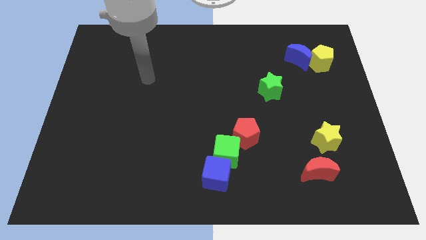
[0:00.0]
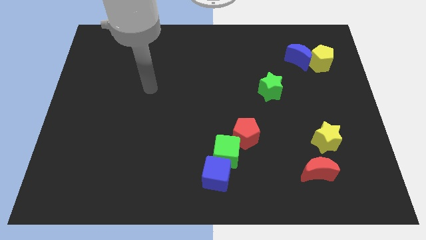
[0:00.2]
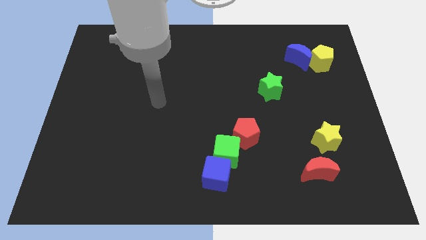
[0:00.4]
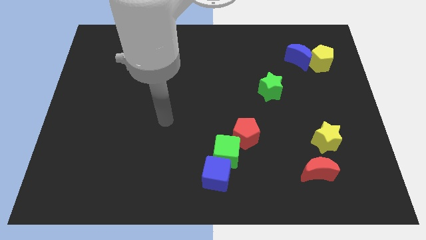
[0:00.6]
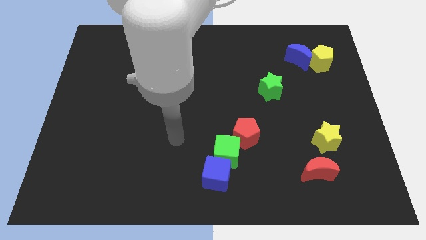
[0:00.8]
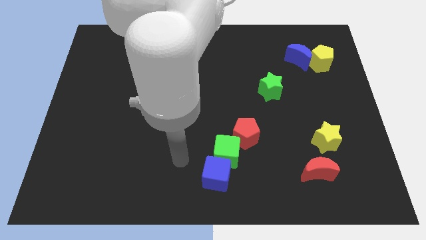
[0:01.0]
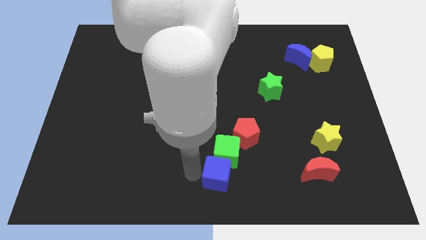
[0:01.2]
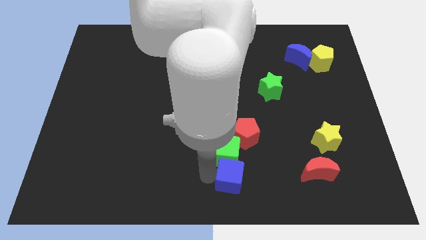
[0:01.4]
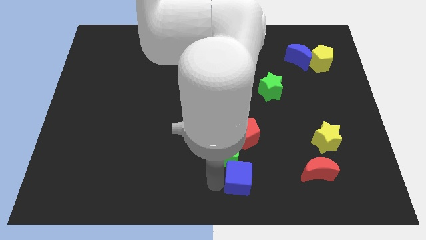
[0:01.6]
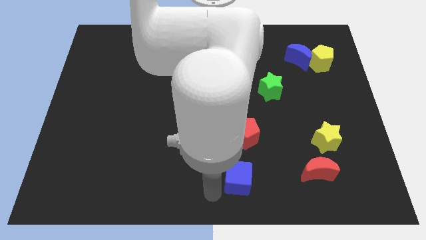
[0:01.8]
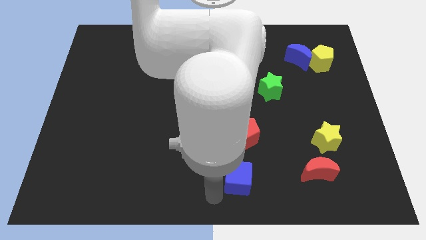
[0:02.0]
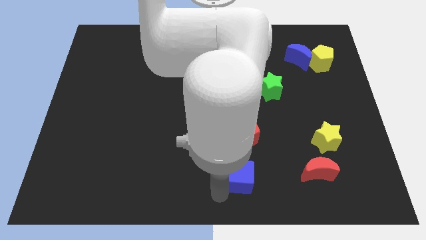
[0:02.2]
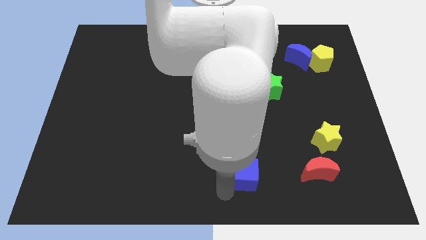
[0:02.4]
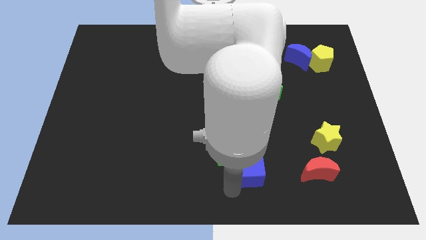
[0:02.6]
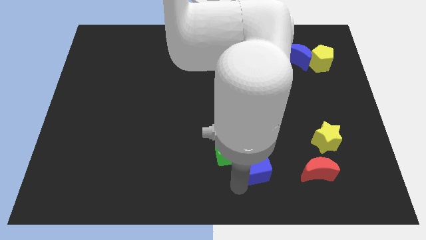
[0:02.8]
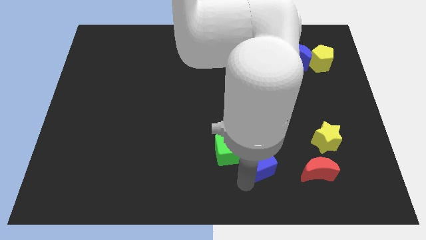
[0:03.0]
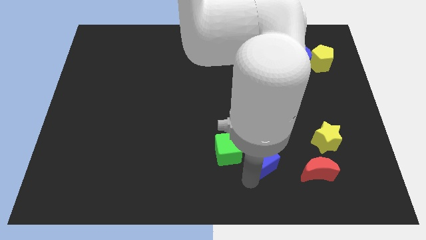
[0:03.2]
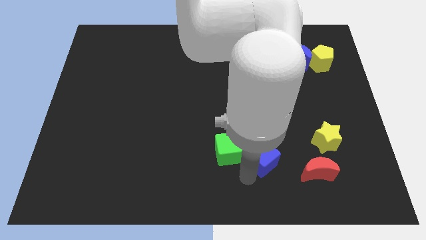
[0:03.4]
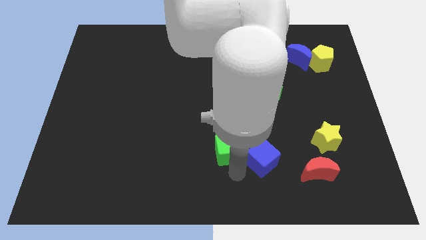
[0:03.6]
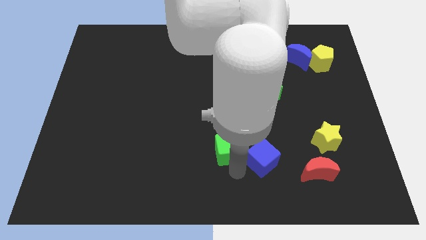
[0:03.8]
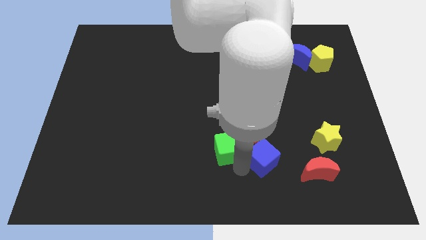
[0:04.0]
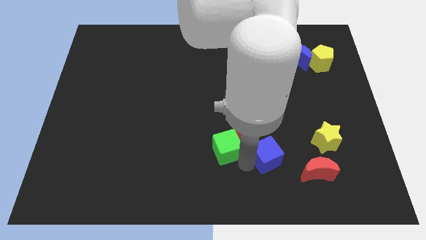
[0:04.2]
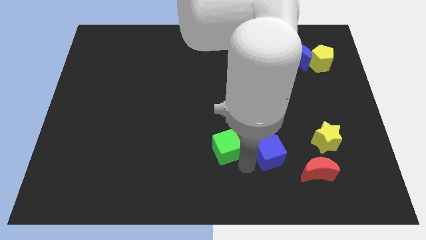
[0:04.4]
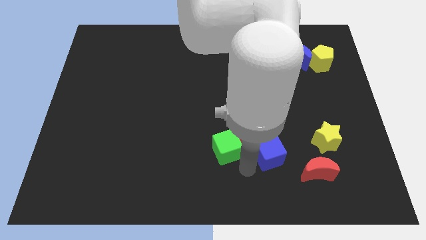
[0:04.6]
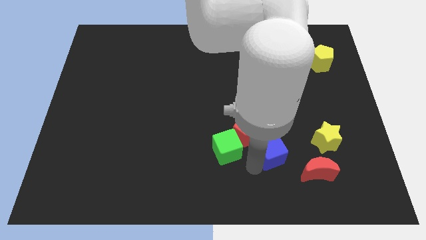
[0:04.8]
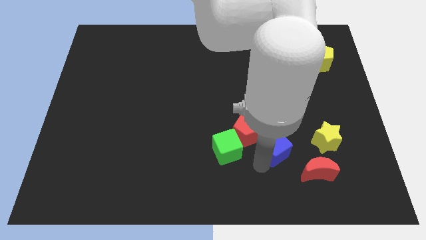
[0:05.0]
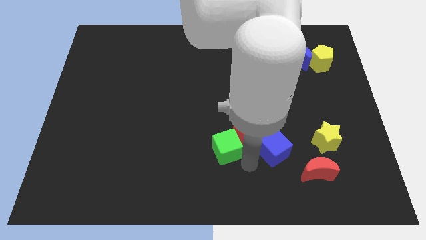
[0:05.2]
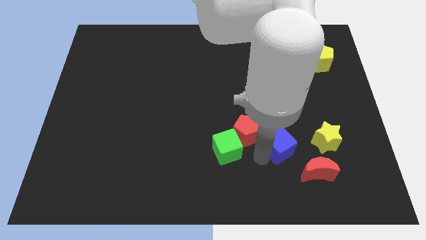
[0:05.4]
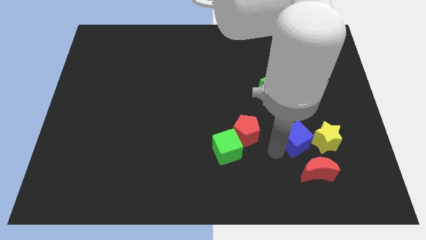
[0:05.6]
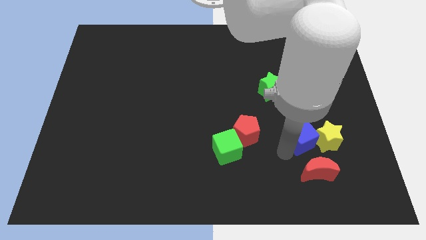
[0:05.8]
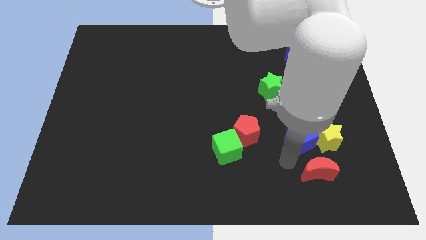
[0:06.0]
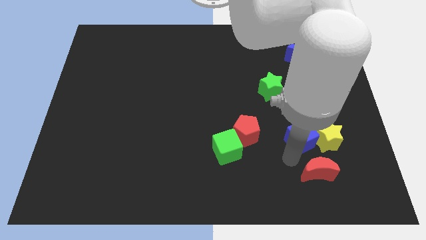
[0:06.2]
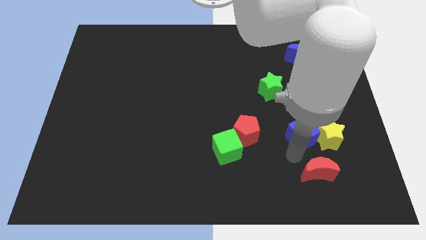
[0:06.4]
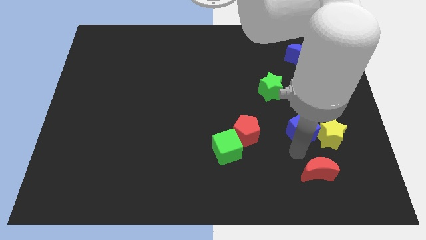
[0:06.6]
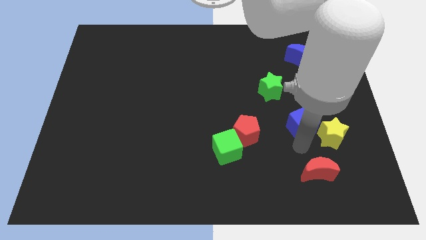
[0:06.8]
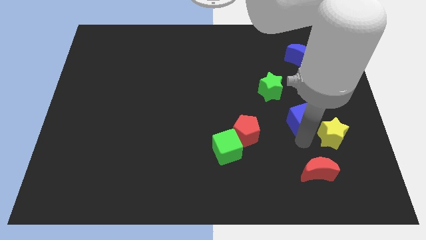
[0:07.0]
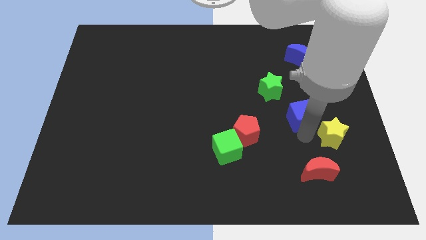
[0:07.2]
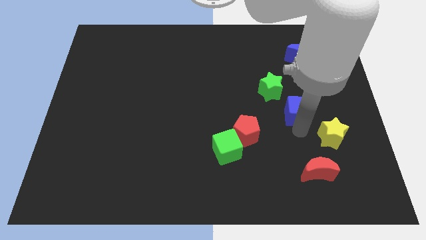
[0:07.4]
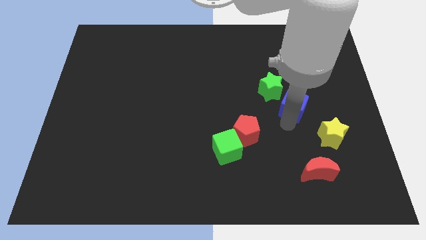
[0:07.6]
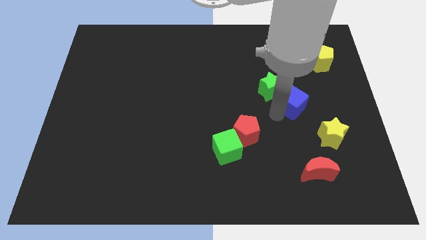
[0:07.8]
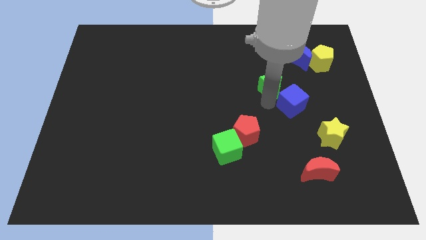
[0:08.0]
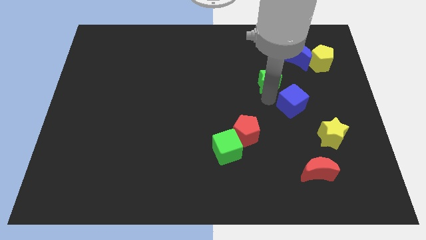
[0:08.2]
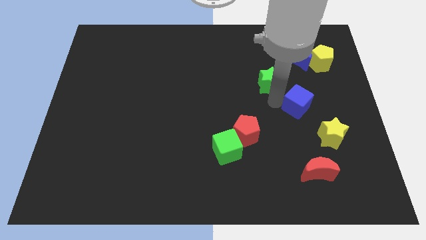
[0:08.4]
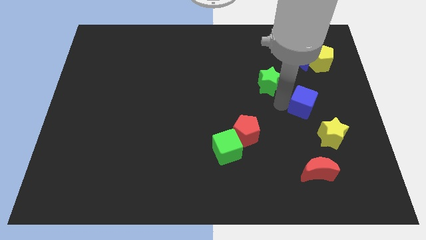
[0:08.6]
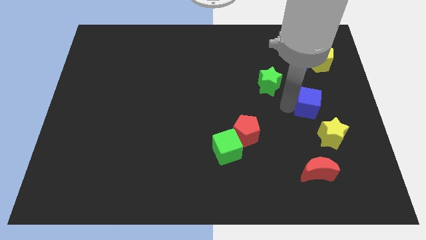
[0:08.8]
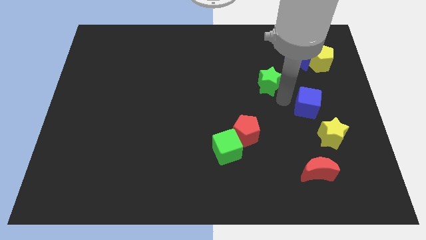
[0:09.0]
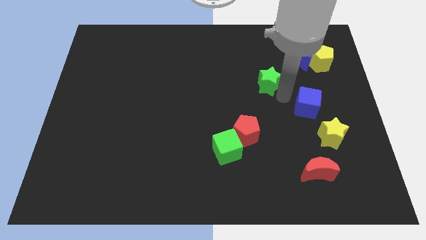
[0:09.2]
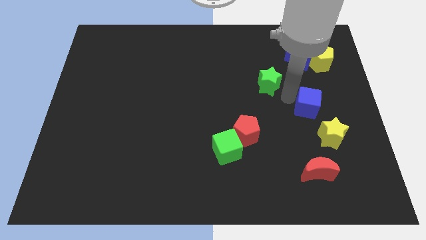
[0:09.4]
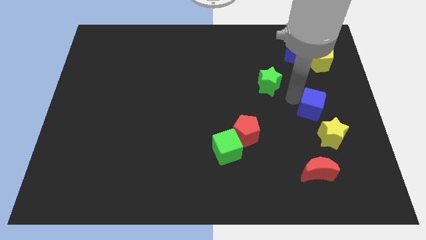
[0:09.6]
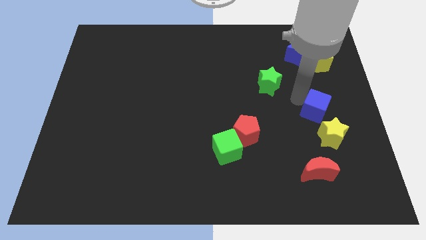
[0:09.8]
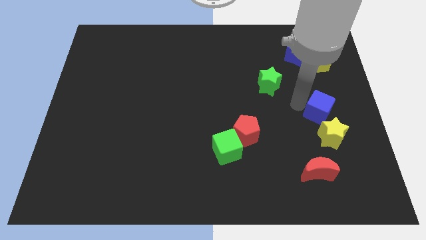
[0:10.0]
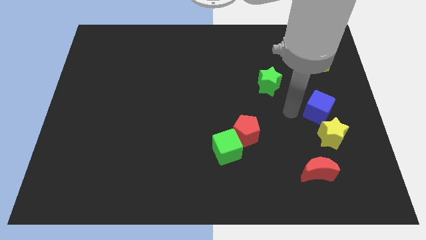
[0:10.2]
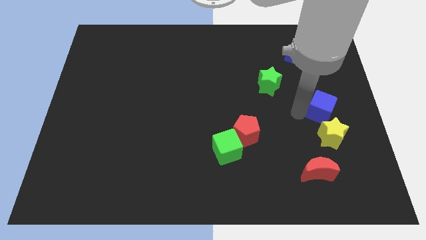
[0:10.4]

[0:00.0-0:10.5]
move the blue cube to the right side

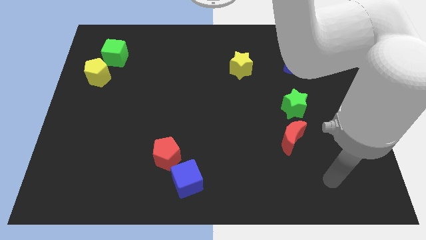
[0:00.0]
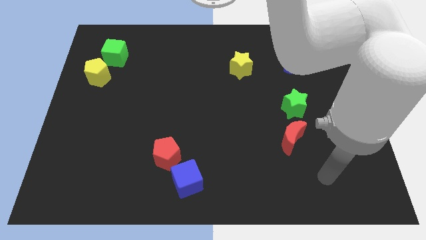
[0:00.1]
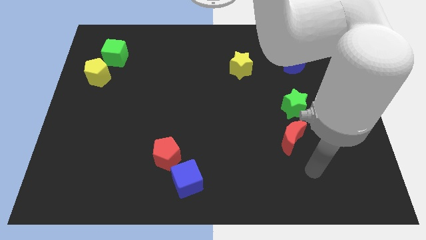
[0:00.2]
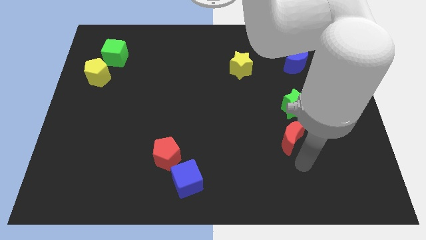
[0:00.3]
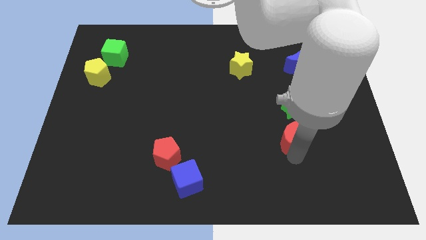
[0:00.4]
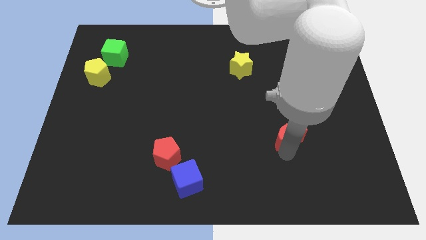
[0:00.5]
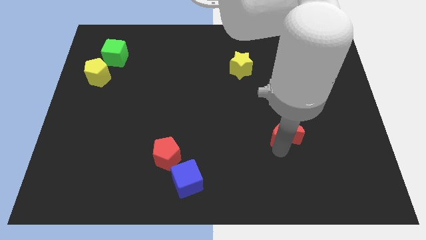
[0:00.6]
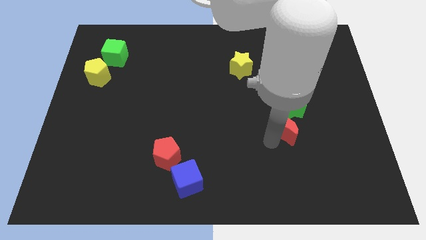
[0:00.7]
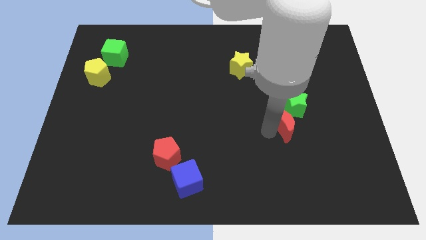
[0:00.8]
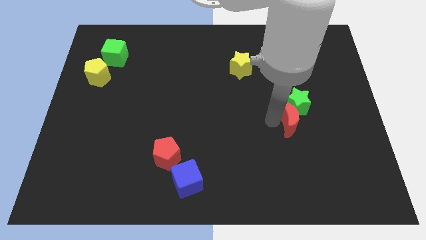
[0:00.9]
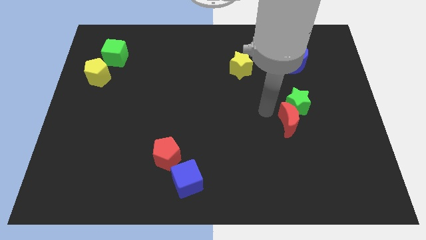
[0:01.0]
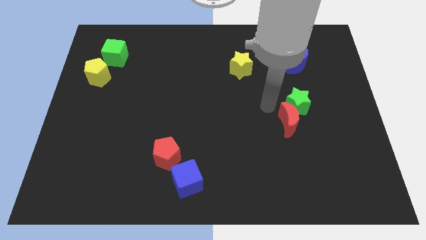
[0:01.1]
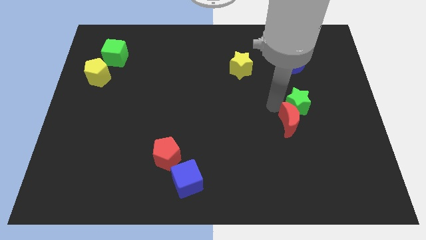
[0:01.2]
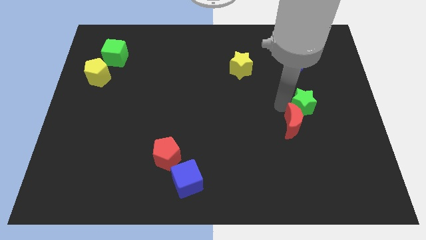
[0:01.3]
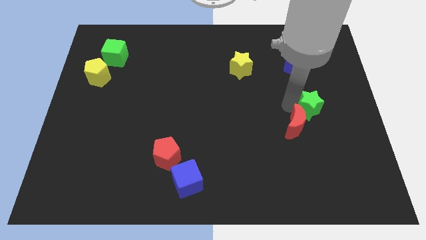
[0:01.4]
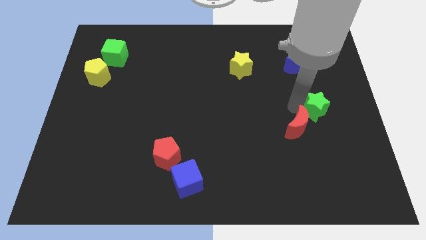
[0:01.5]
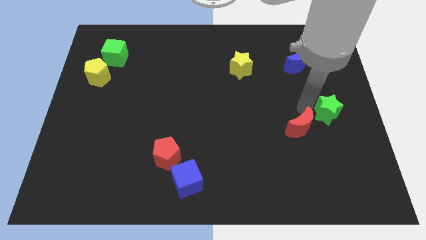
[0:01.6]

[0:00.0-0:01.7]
put the green star to the center right
